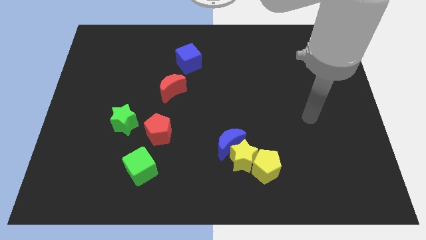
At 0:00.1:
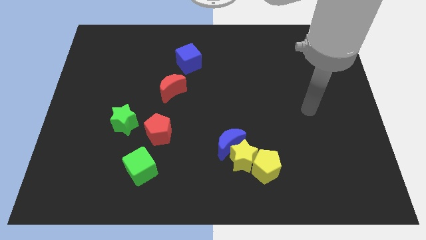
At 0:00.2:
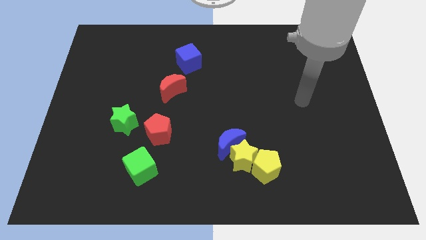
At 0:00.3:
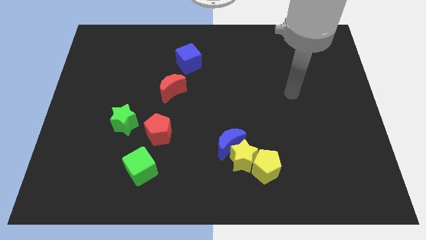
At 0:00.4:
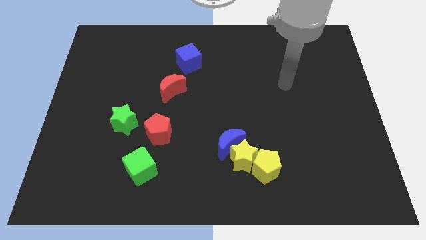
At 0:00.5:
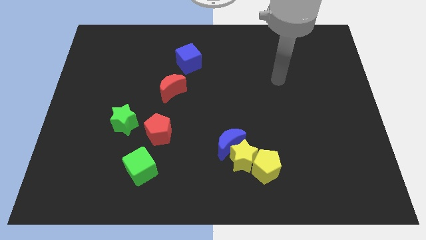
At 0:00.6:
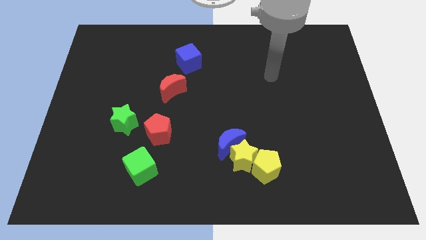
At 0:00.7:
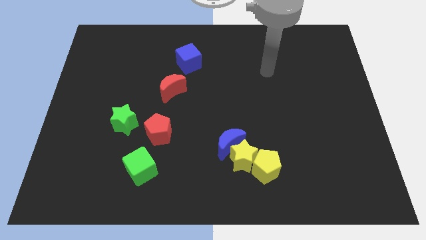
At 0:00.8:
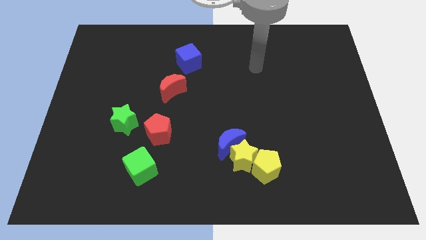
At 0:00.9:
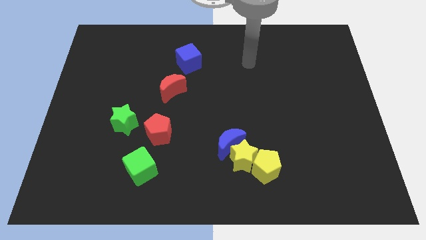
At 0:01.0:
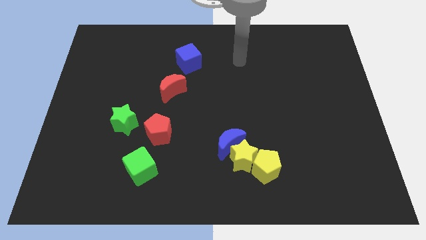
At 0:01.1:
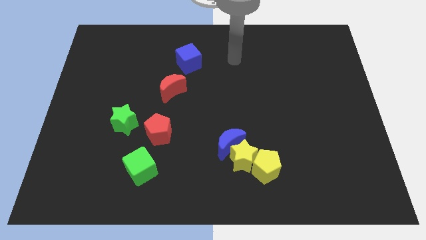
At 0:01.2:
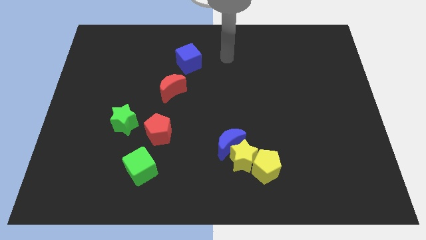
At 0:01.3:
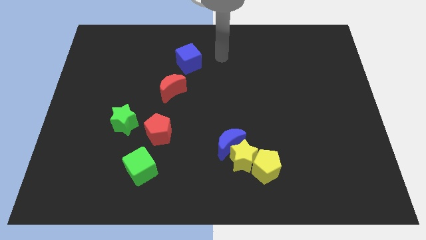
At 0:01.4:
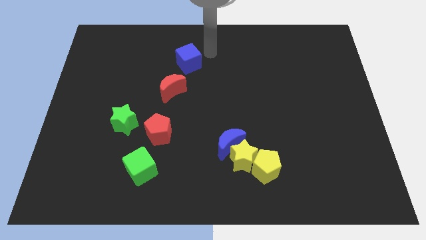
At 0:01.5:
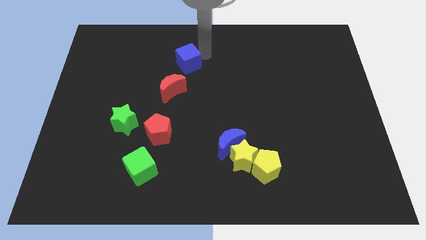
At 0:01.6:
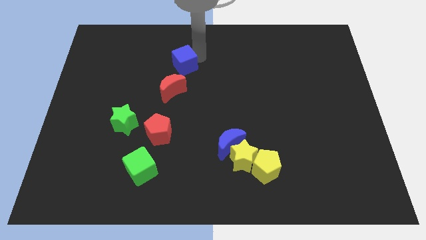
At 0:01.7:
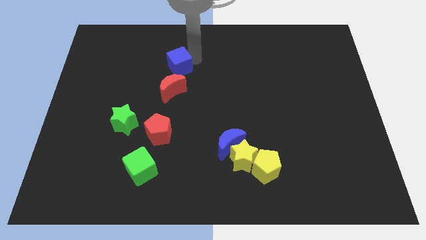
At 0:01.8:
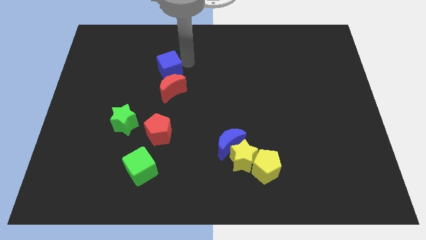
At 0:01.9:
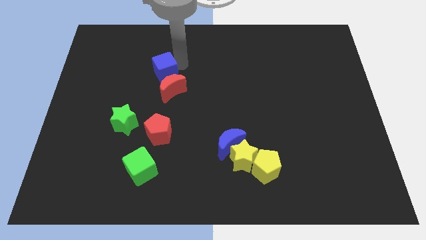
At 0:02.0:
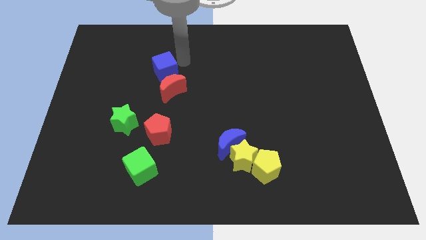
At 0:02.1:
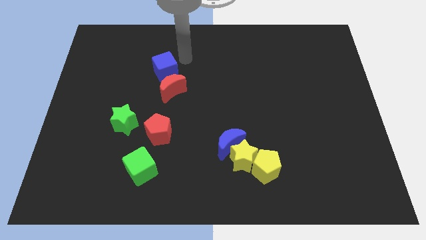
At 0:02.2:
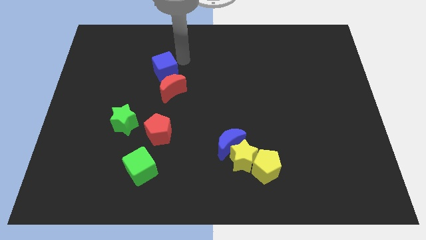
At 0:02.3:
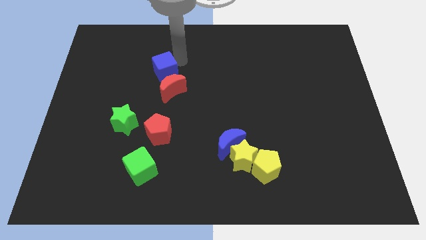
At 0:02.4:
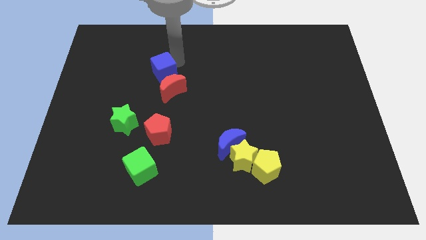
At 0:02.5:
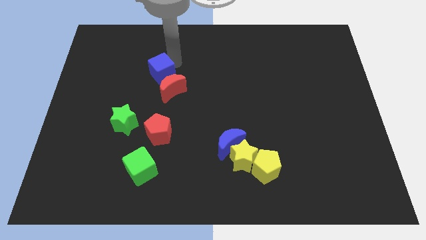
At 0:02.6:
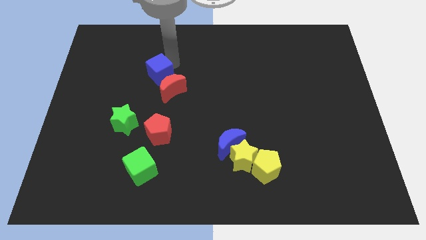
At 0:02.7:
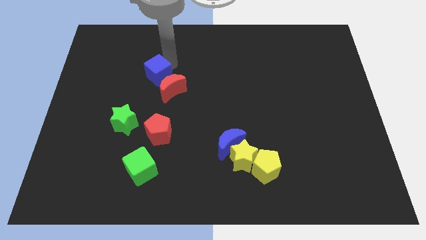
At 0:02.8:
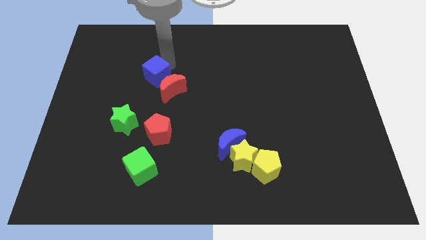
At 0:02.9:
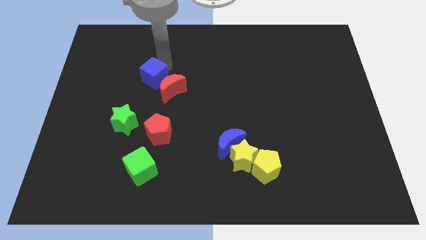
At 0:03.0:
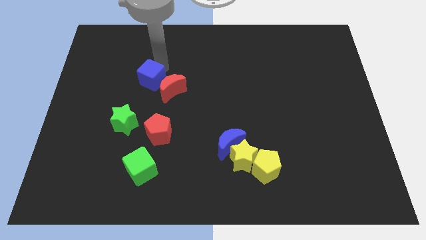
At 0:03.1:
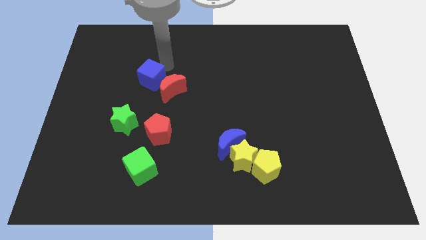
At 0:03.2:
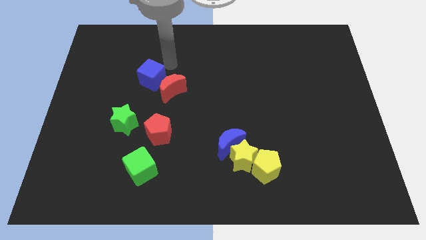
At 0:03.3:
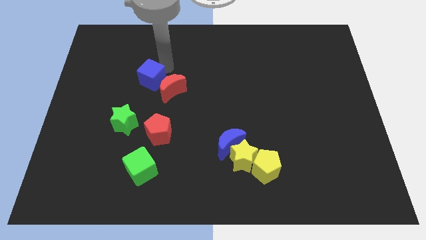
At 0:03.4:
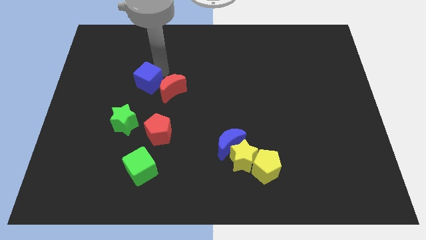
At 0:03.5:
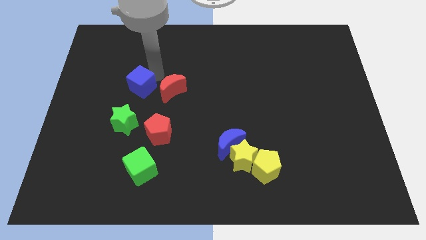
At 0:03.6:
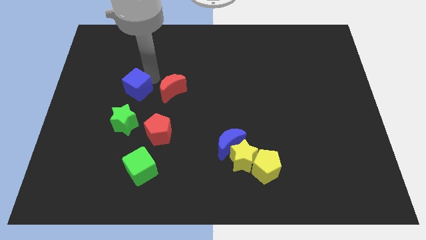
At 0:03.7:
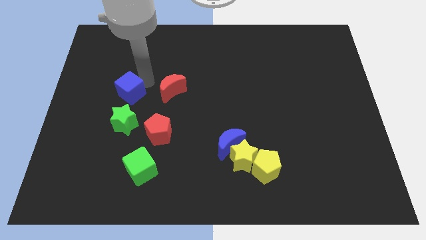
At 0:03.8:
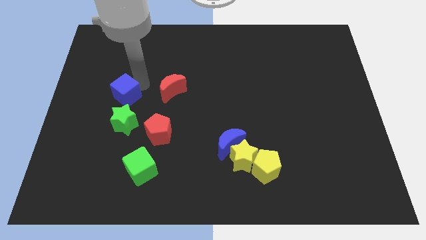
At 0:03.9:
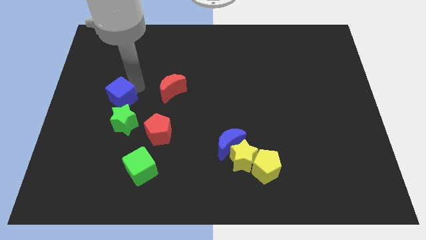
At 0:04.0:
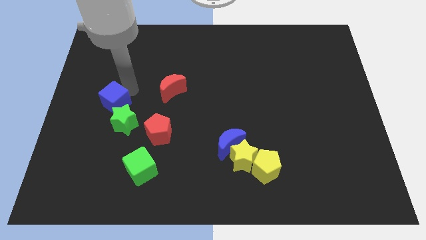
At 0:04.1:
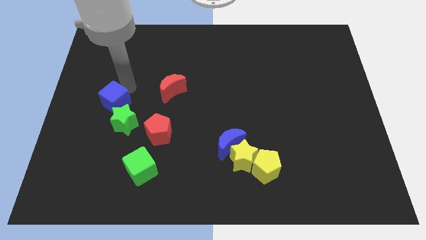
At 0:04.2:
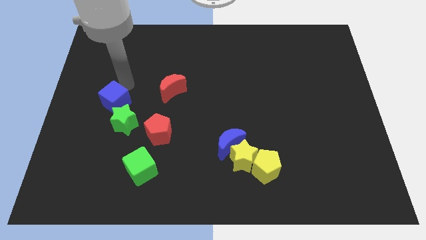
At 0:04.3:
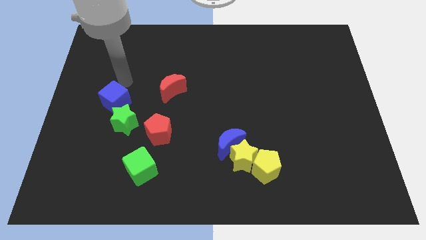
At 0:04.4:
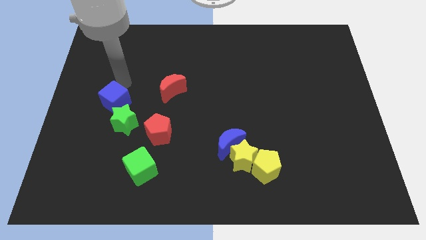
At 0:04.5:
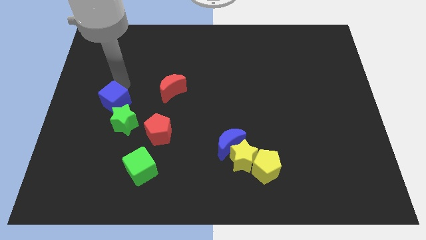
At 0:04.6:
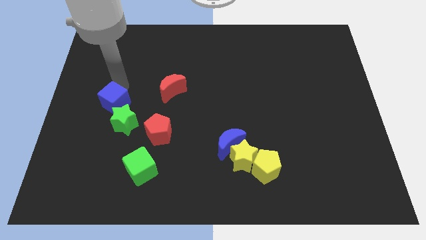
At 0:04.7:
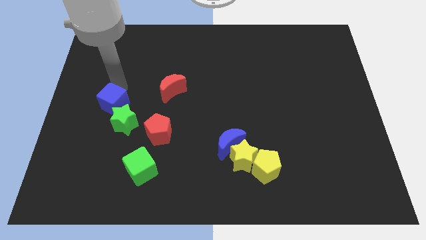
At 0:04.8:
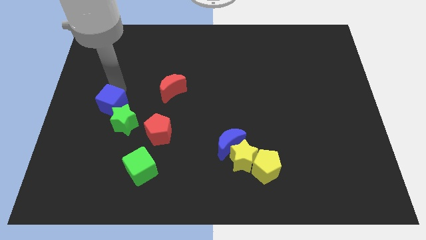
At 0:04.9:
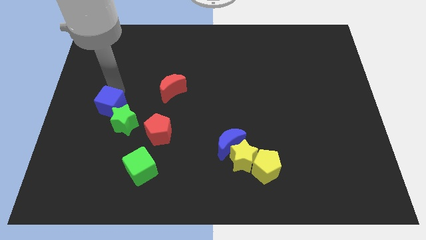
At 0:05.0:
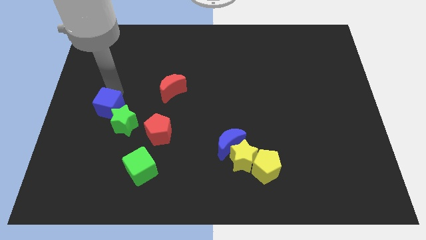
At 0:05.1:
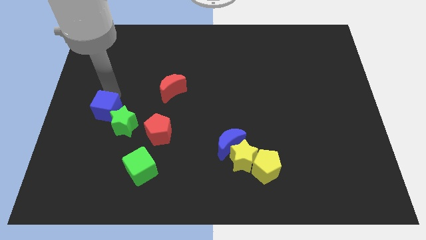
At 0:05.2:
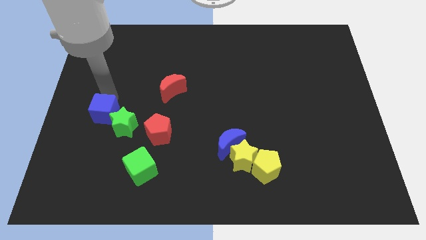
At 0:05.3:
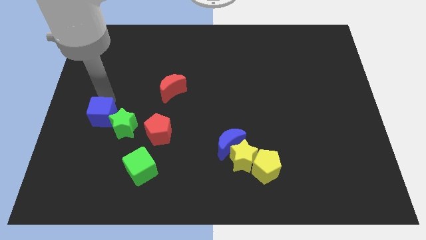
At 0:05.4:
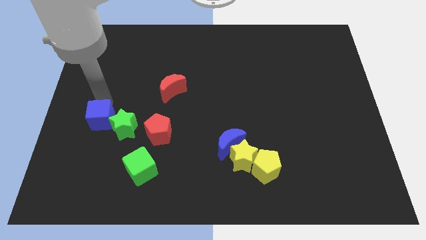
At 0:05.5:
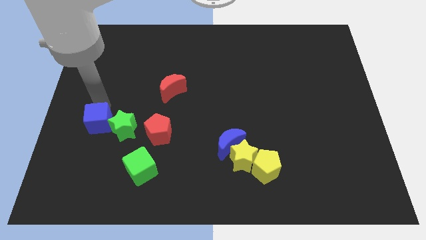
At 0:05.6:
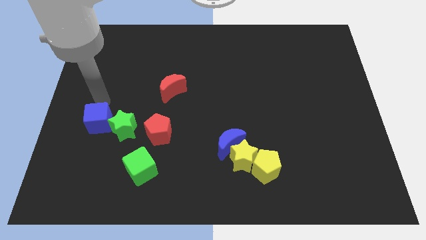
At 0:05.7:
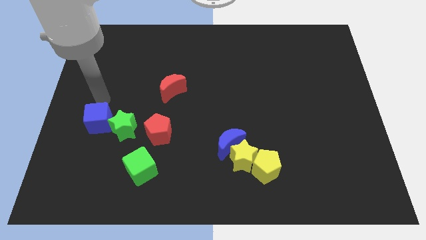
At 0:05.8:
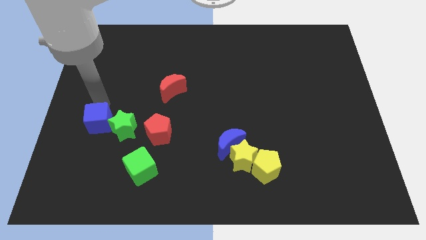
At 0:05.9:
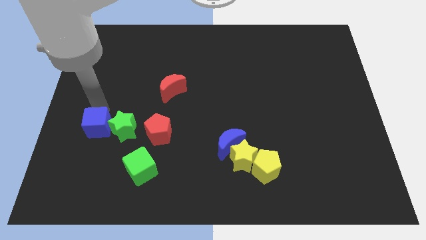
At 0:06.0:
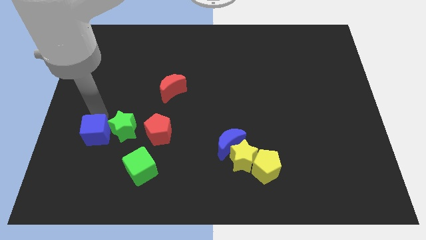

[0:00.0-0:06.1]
slide the blue cube diagonally down and to the left of the green star

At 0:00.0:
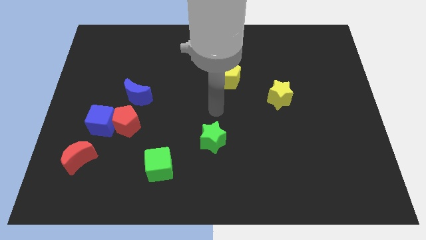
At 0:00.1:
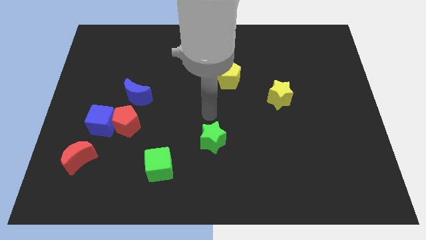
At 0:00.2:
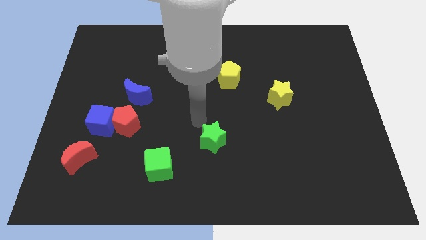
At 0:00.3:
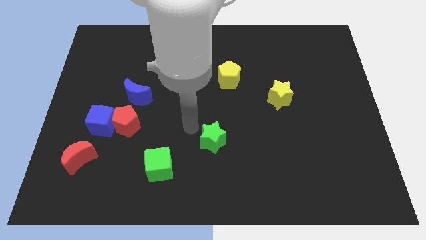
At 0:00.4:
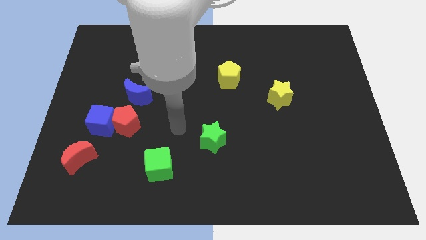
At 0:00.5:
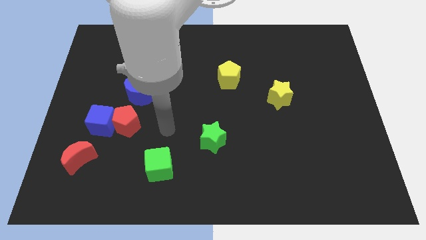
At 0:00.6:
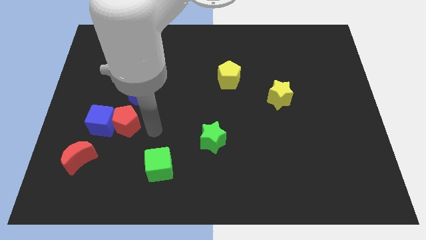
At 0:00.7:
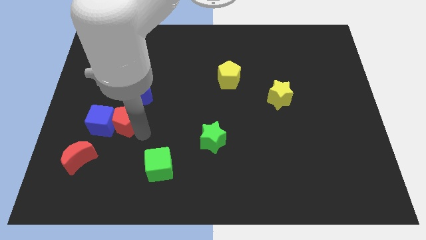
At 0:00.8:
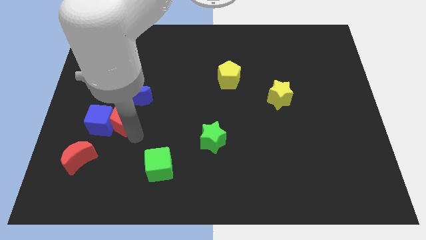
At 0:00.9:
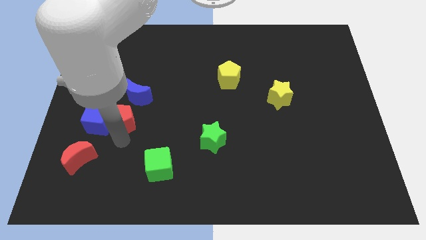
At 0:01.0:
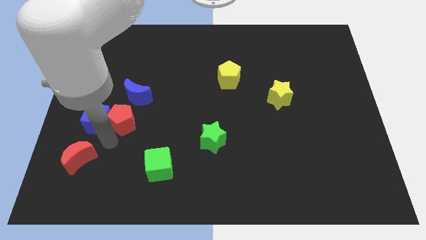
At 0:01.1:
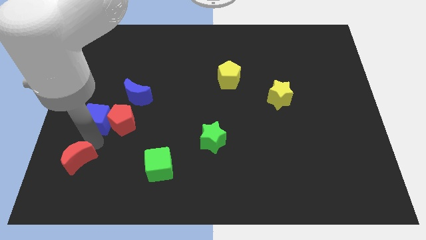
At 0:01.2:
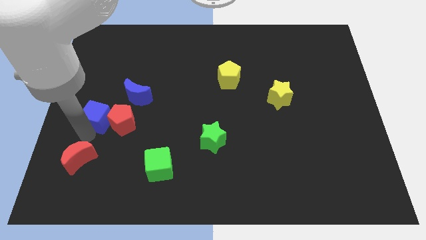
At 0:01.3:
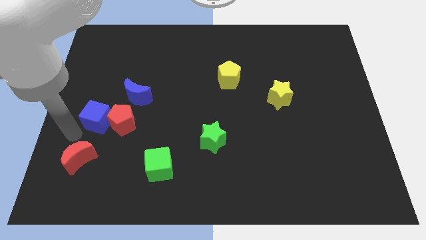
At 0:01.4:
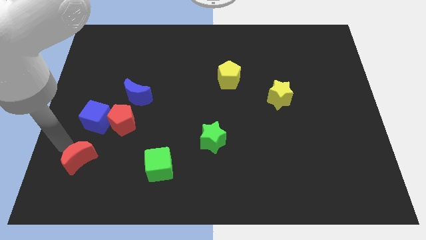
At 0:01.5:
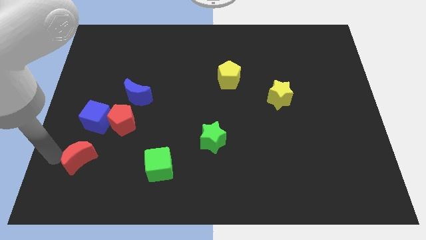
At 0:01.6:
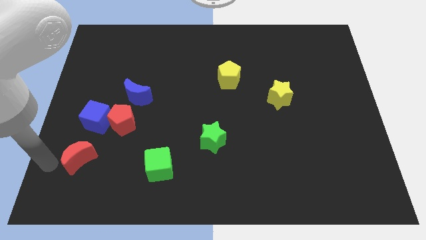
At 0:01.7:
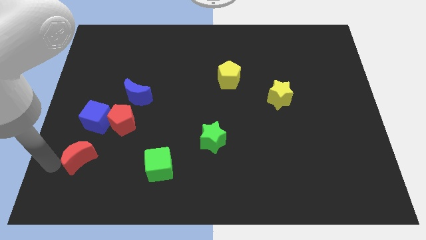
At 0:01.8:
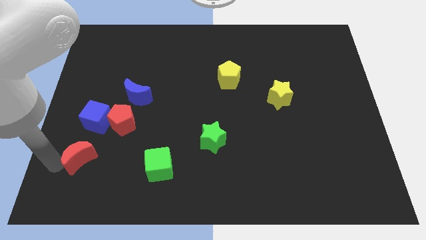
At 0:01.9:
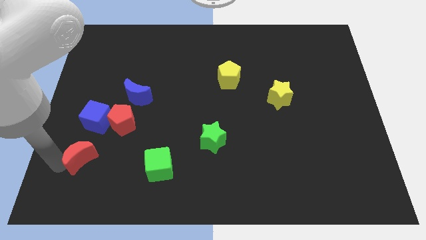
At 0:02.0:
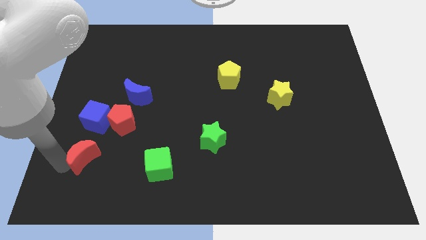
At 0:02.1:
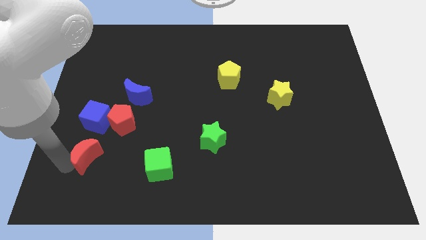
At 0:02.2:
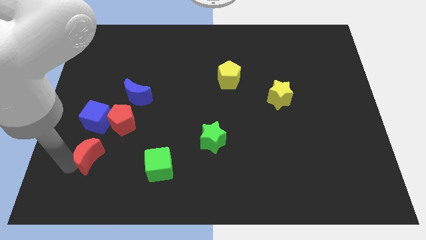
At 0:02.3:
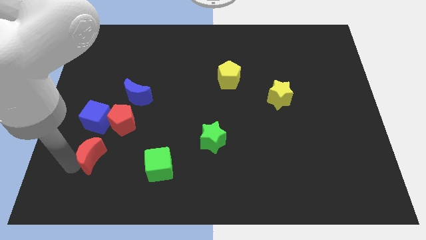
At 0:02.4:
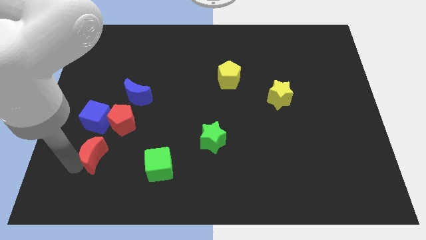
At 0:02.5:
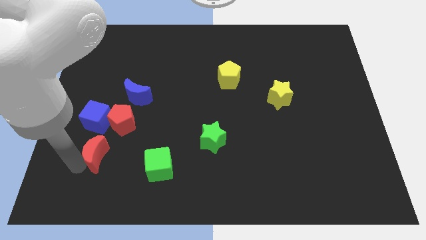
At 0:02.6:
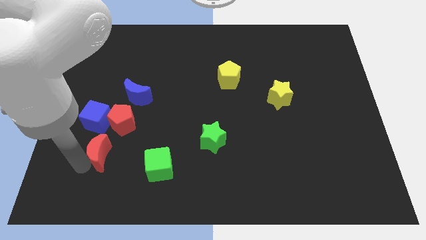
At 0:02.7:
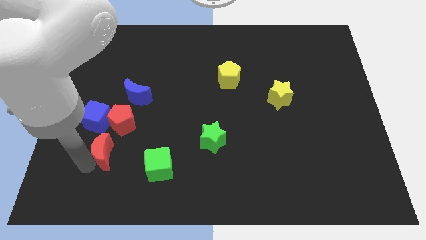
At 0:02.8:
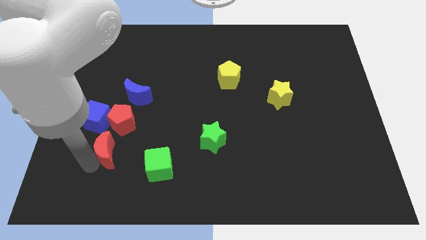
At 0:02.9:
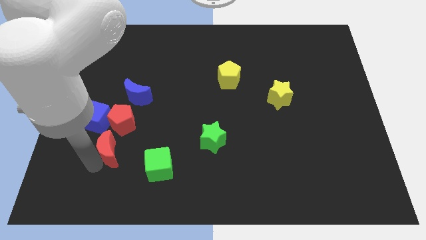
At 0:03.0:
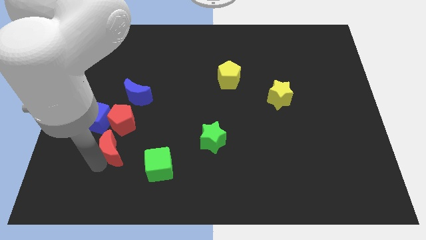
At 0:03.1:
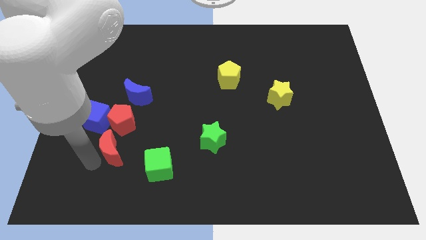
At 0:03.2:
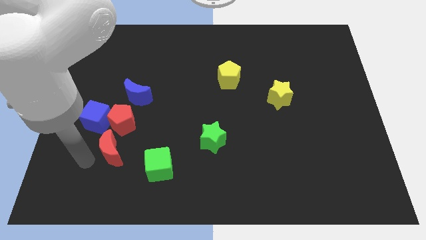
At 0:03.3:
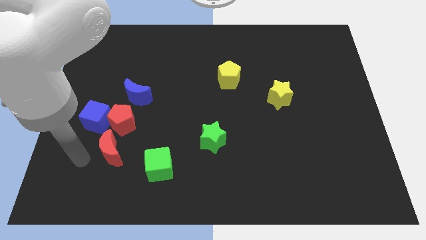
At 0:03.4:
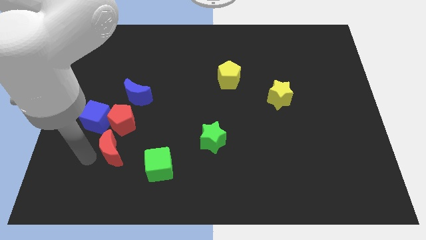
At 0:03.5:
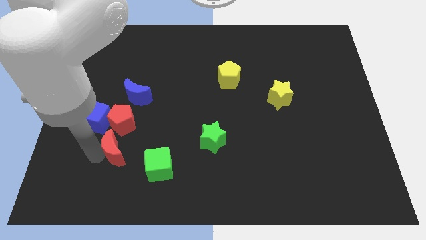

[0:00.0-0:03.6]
push the red moon to the top left of the green cube
